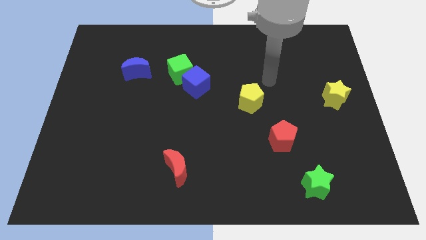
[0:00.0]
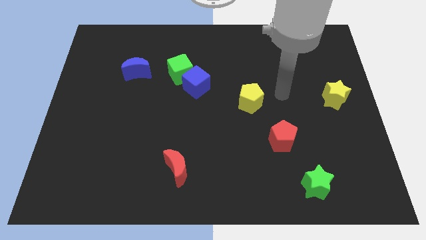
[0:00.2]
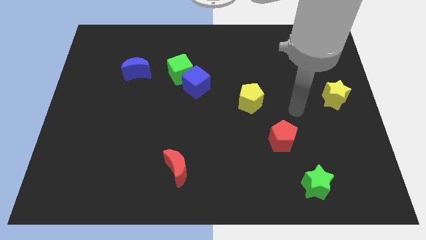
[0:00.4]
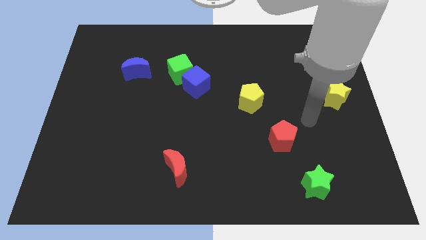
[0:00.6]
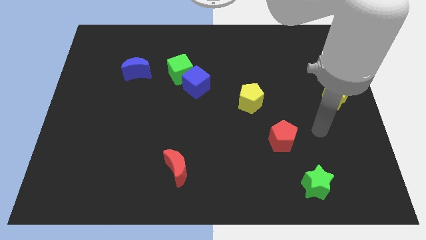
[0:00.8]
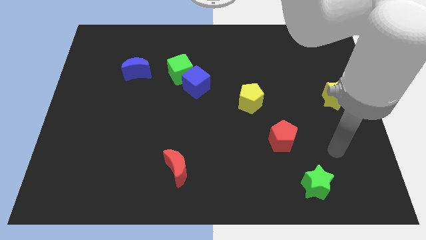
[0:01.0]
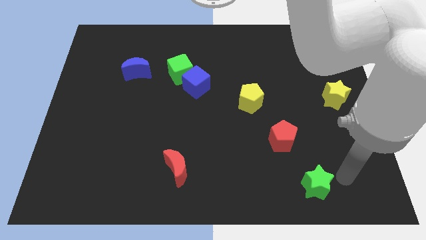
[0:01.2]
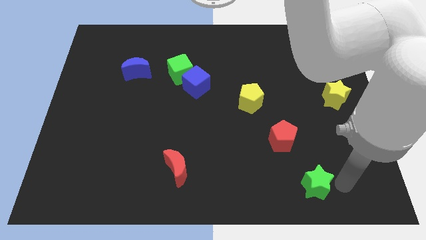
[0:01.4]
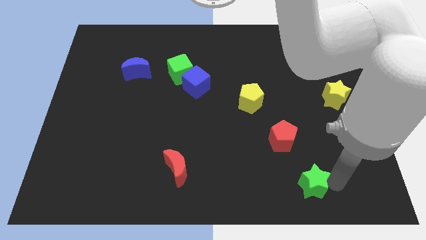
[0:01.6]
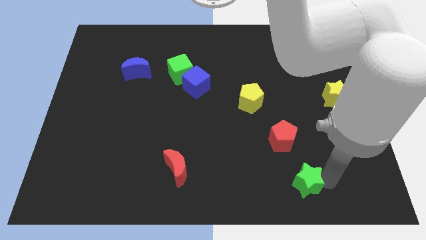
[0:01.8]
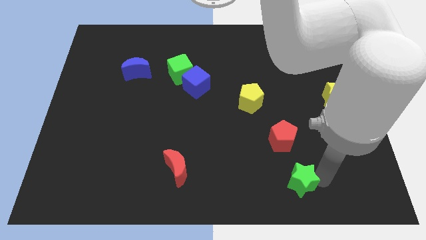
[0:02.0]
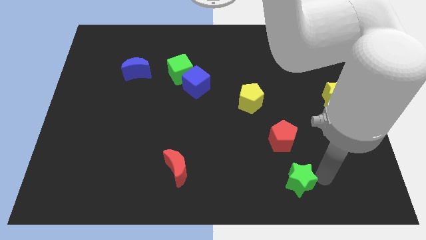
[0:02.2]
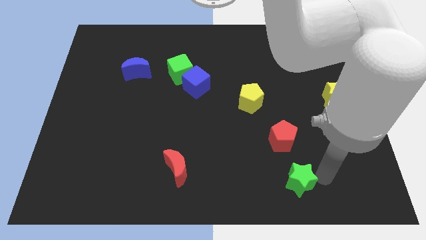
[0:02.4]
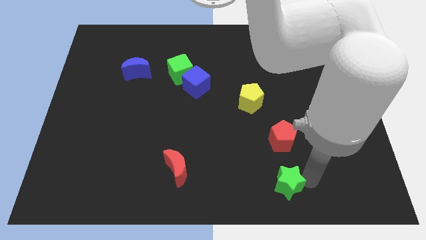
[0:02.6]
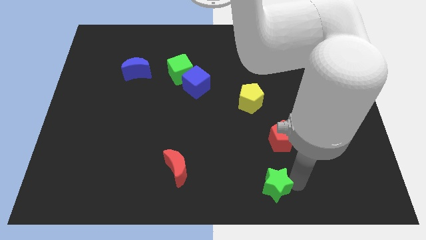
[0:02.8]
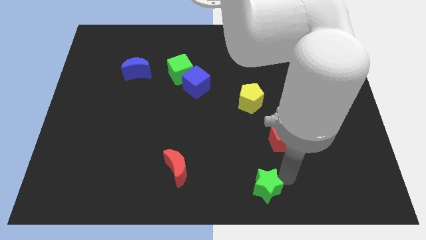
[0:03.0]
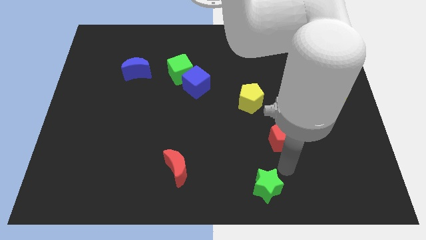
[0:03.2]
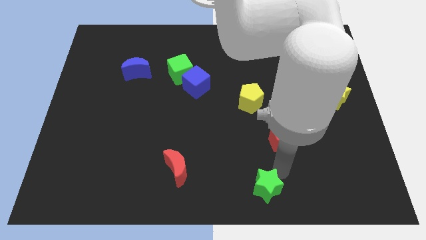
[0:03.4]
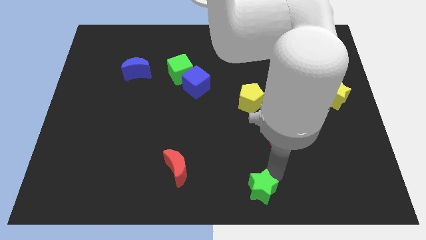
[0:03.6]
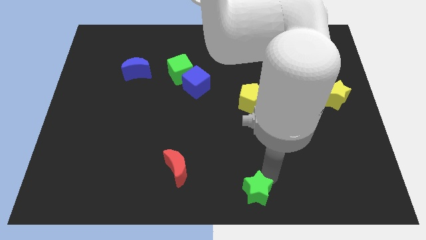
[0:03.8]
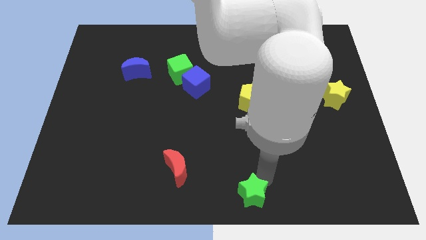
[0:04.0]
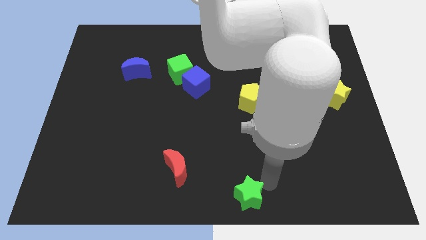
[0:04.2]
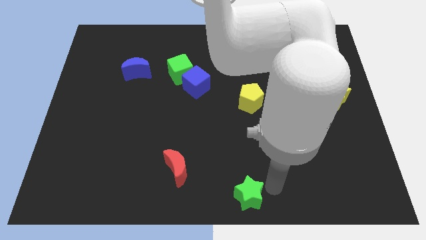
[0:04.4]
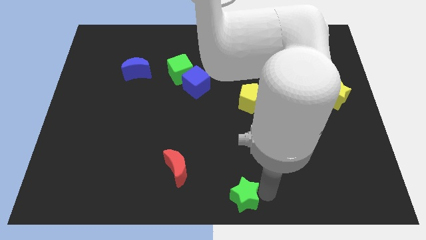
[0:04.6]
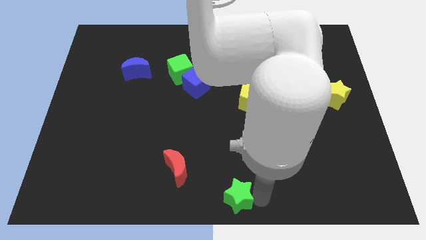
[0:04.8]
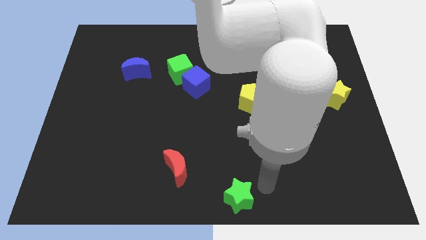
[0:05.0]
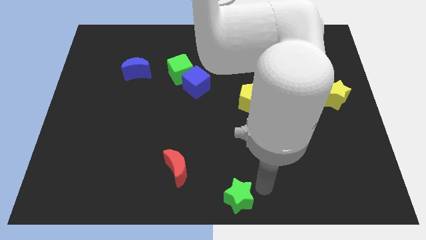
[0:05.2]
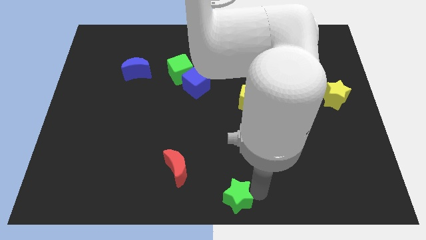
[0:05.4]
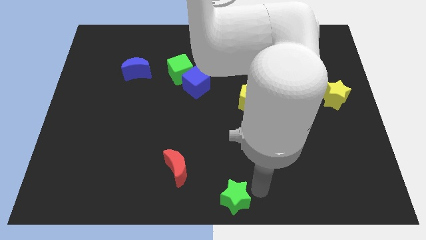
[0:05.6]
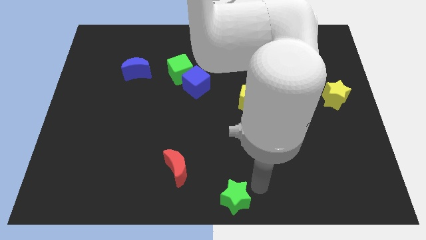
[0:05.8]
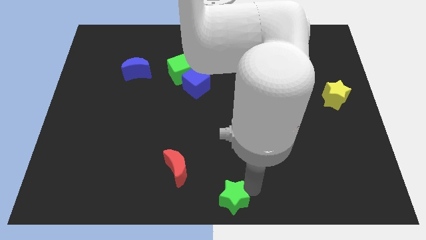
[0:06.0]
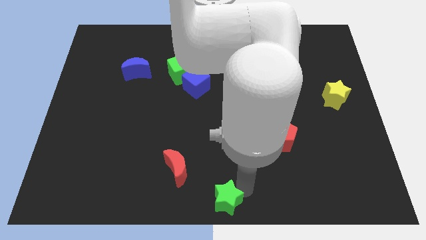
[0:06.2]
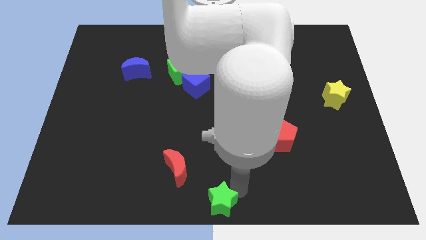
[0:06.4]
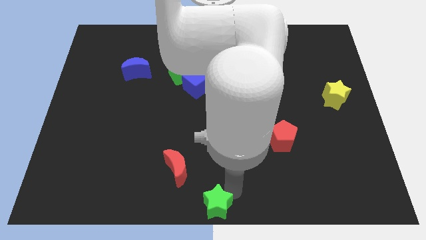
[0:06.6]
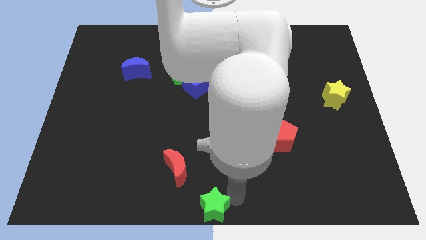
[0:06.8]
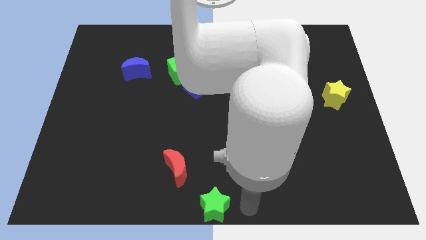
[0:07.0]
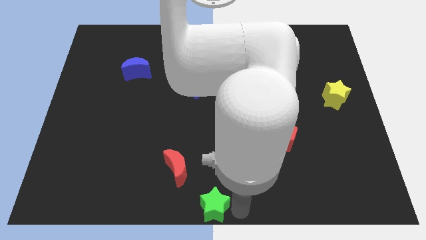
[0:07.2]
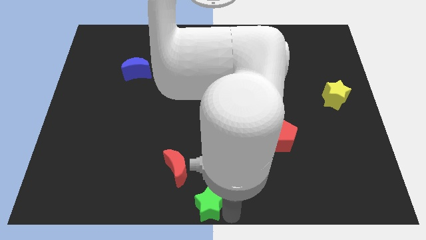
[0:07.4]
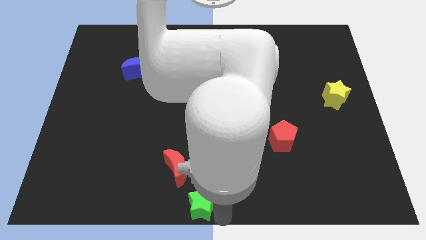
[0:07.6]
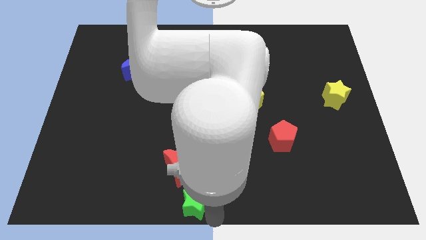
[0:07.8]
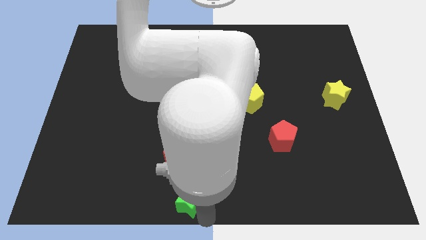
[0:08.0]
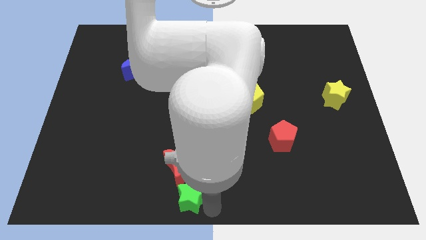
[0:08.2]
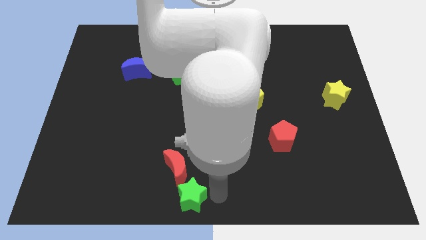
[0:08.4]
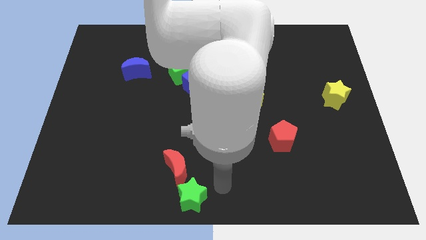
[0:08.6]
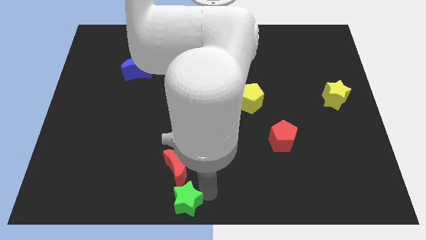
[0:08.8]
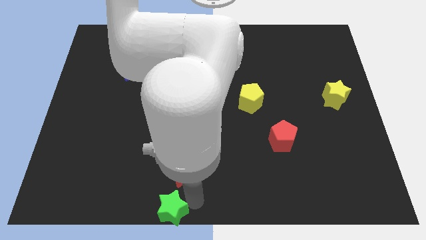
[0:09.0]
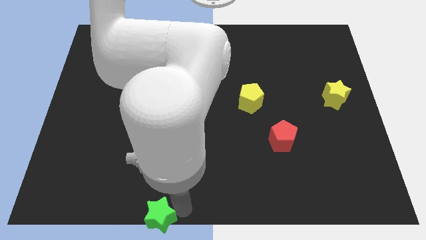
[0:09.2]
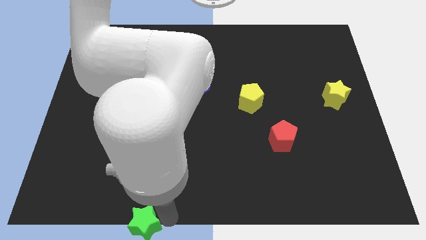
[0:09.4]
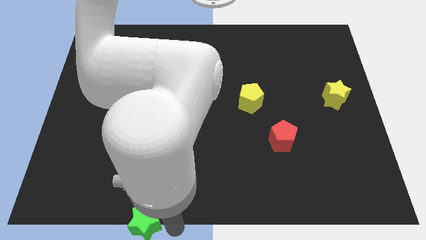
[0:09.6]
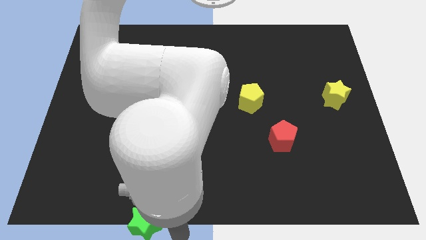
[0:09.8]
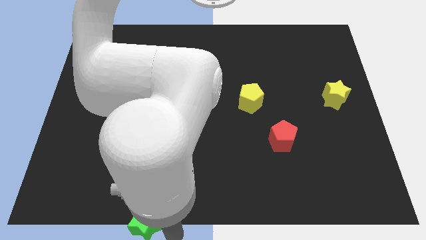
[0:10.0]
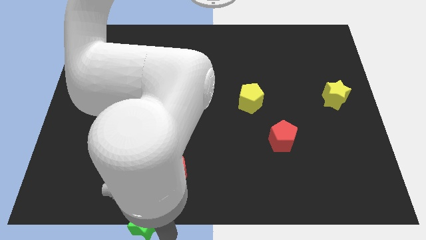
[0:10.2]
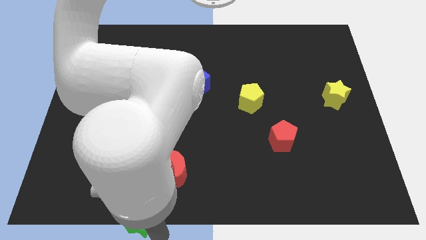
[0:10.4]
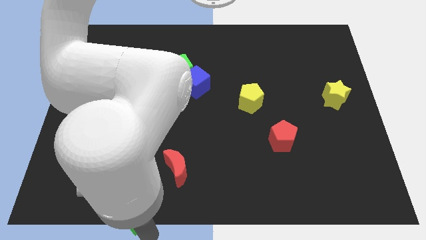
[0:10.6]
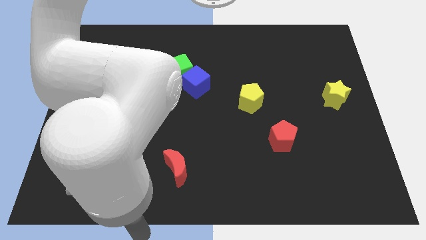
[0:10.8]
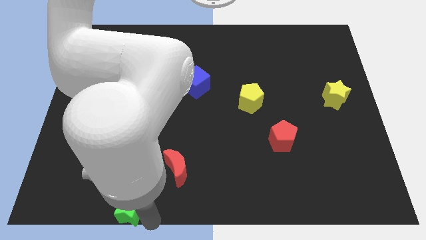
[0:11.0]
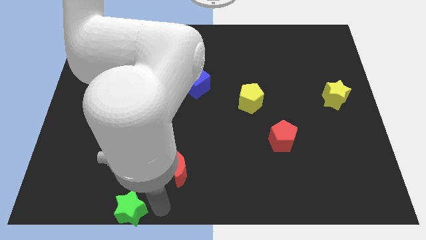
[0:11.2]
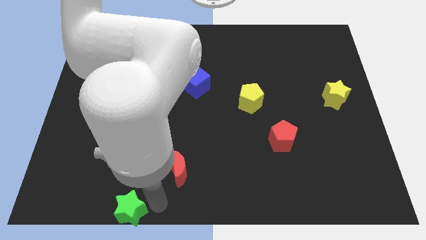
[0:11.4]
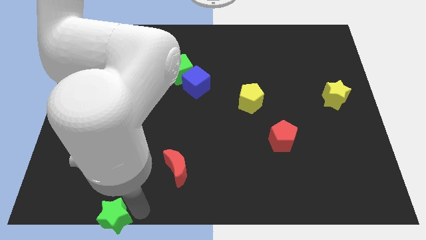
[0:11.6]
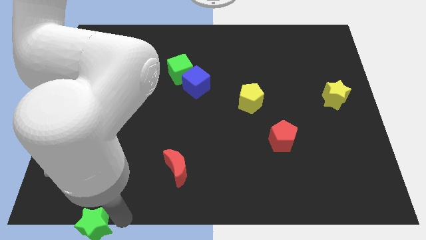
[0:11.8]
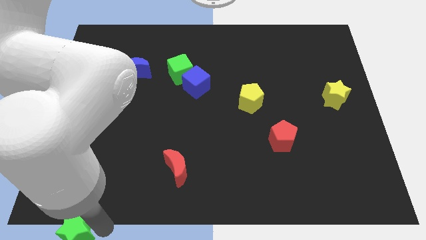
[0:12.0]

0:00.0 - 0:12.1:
move the green star to the bottom left of the board
